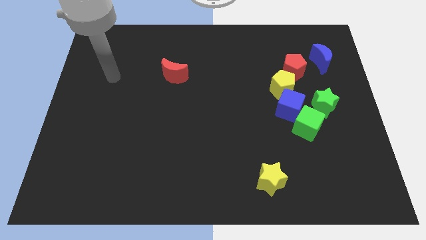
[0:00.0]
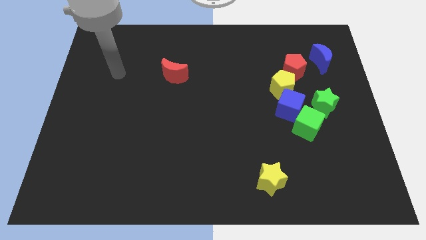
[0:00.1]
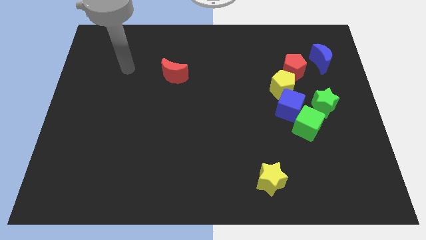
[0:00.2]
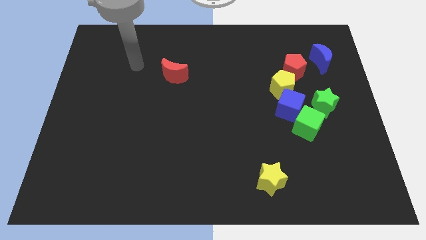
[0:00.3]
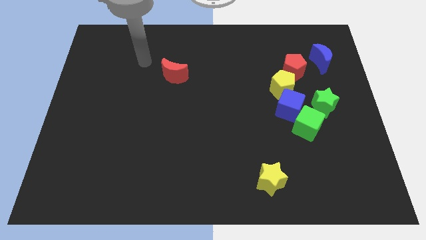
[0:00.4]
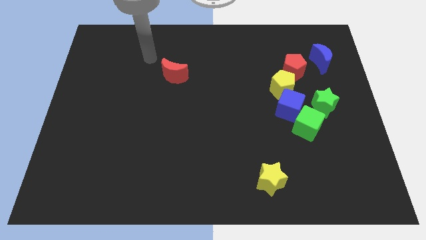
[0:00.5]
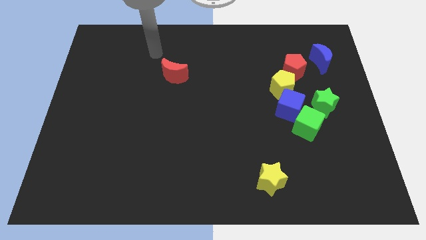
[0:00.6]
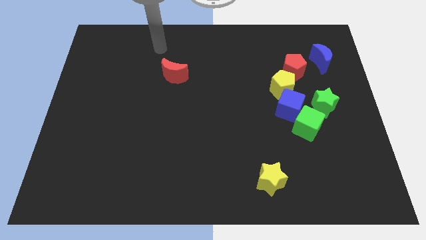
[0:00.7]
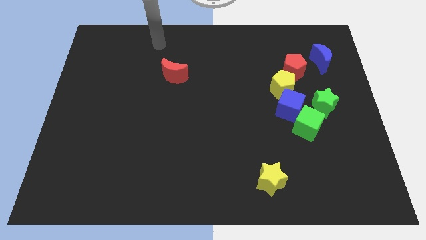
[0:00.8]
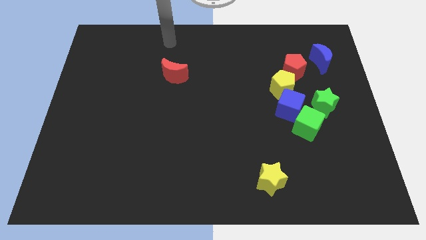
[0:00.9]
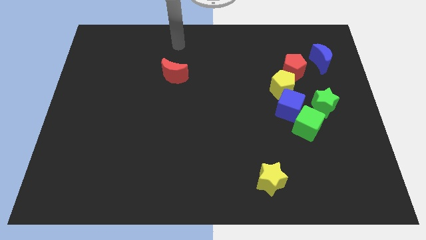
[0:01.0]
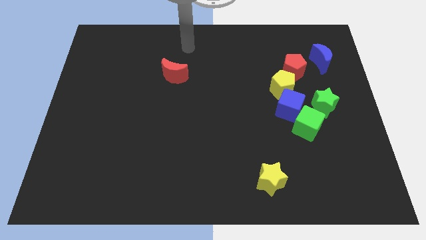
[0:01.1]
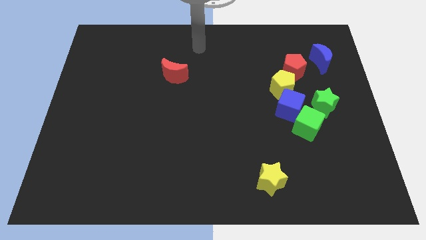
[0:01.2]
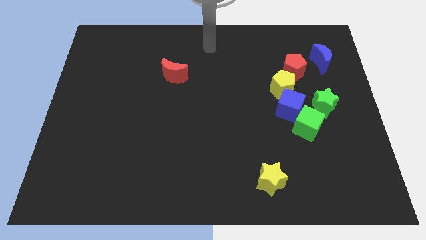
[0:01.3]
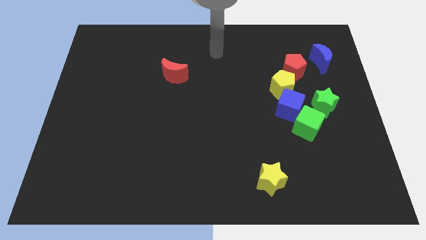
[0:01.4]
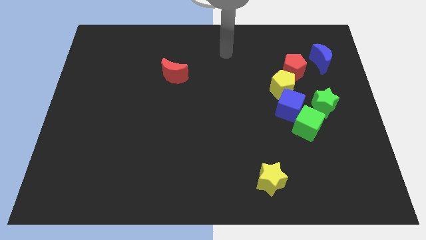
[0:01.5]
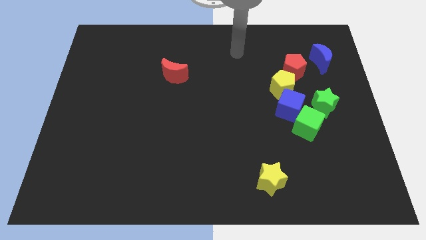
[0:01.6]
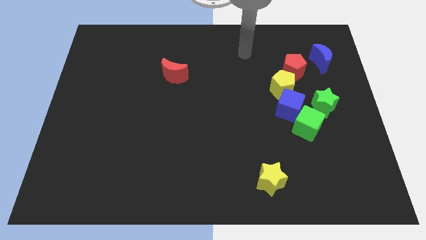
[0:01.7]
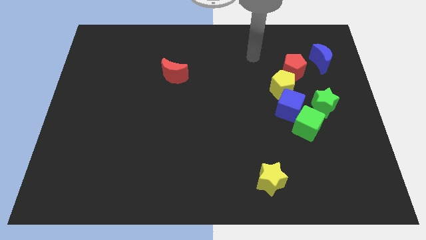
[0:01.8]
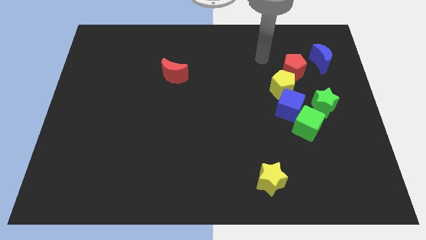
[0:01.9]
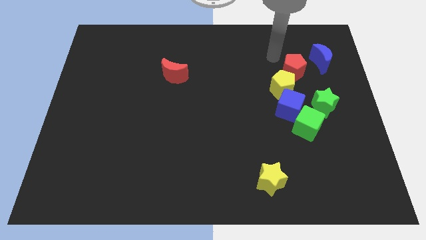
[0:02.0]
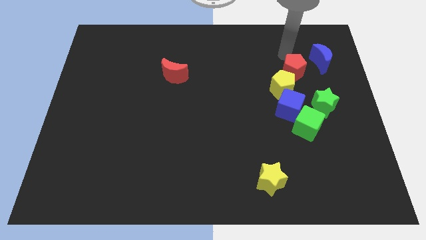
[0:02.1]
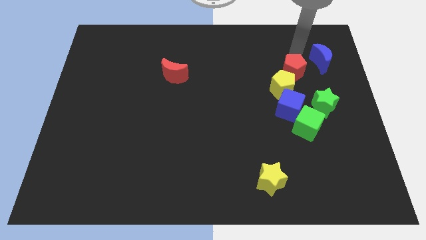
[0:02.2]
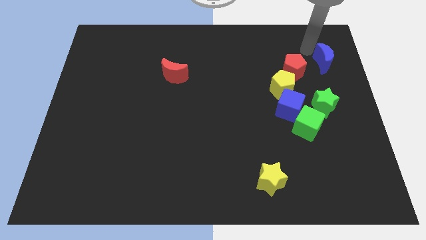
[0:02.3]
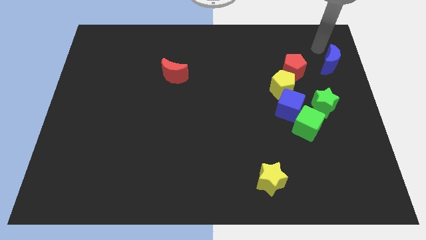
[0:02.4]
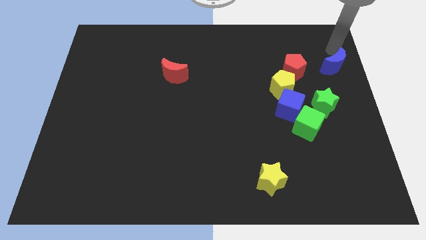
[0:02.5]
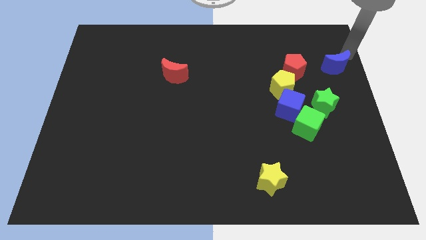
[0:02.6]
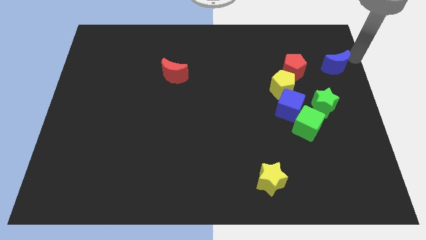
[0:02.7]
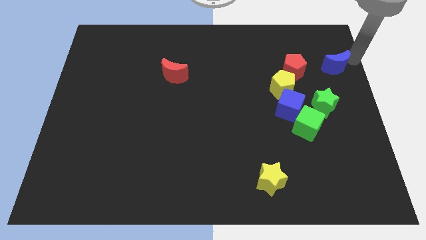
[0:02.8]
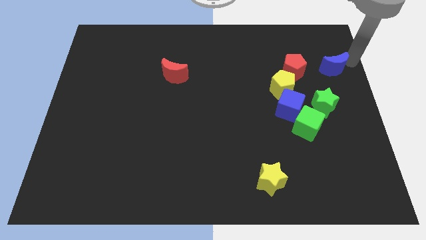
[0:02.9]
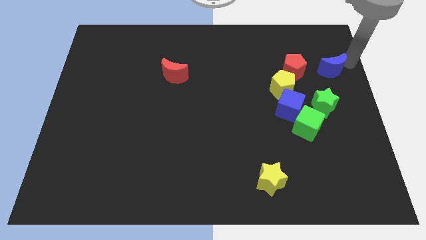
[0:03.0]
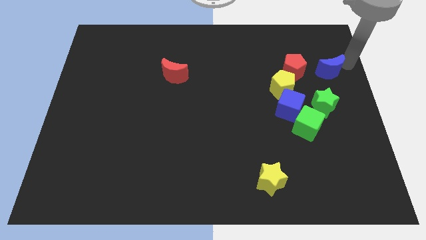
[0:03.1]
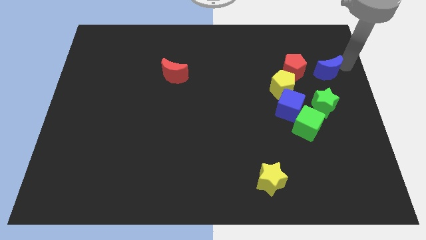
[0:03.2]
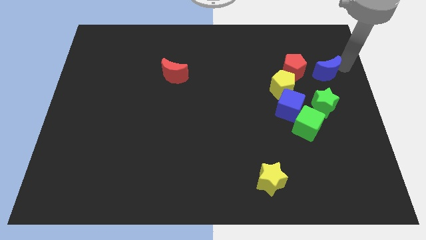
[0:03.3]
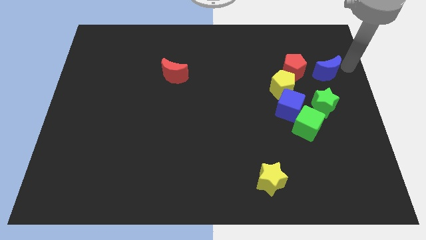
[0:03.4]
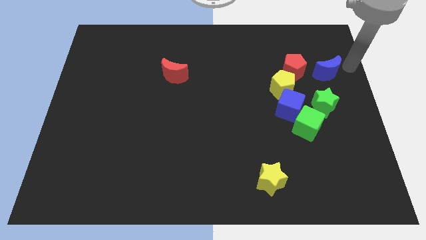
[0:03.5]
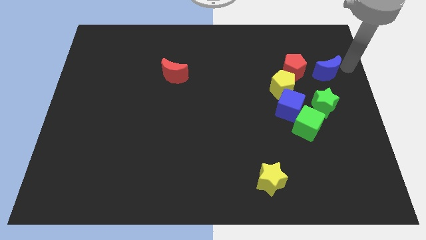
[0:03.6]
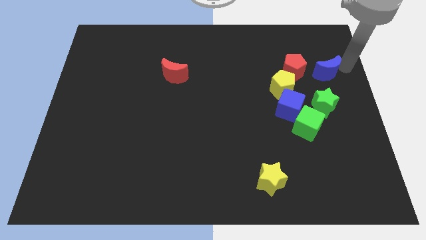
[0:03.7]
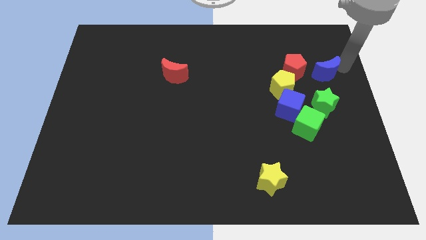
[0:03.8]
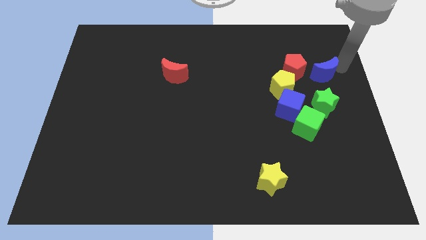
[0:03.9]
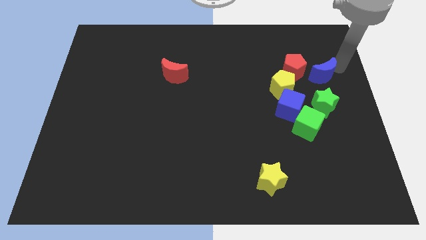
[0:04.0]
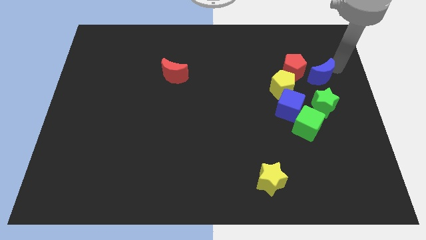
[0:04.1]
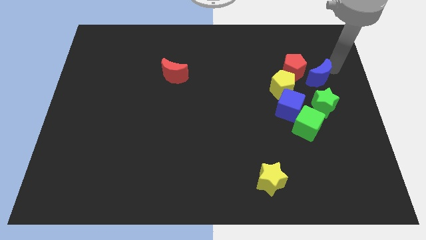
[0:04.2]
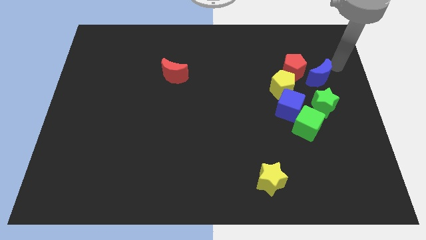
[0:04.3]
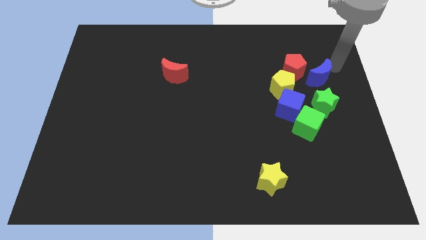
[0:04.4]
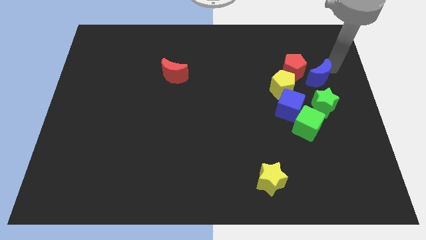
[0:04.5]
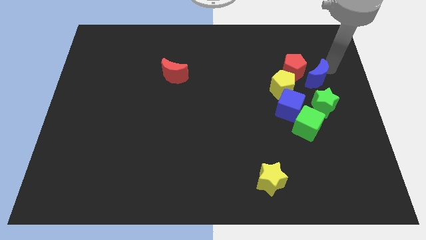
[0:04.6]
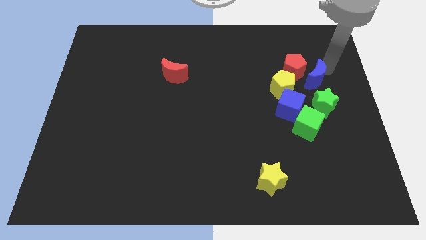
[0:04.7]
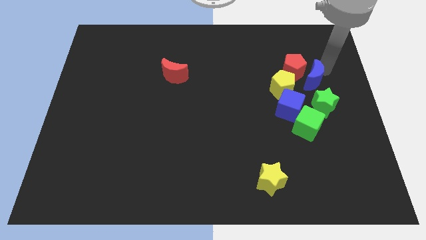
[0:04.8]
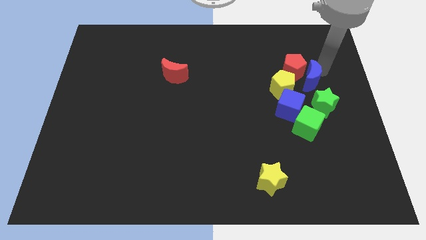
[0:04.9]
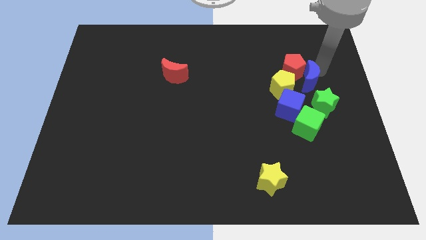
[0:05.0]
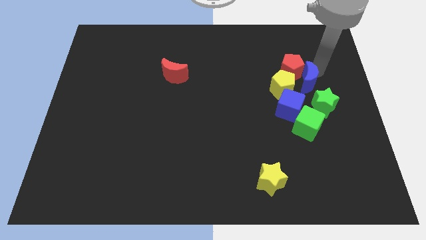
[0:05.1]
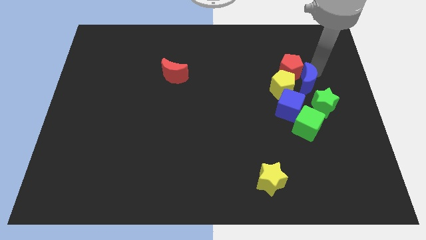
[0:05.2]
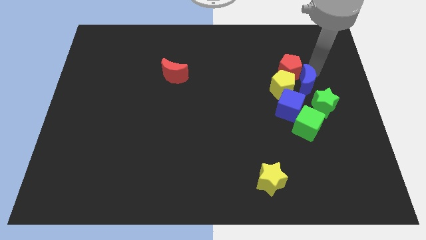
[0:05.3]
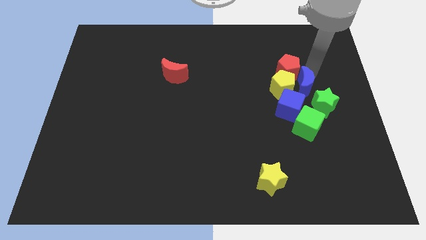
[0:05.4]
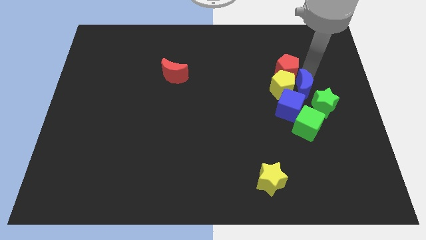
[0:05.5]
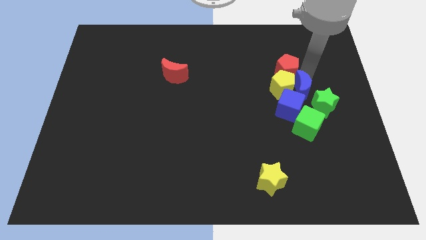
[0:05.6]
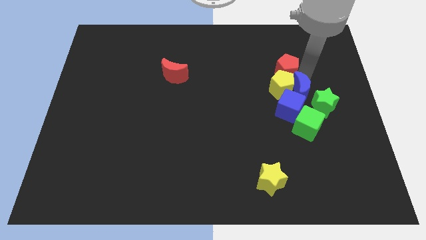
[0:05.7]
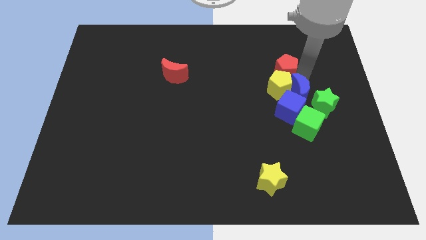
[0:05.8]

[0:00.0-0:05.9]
put the blue moon towards the blue cube

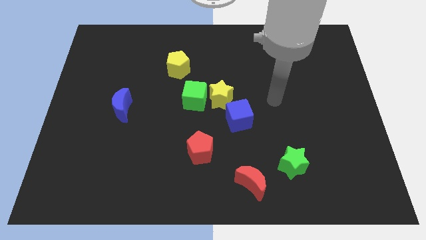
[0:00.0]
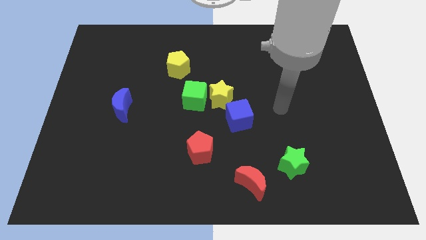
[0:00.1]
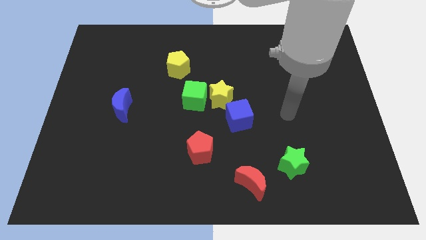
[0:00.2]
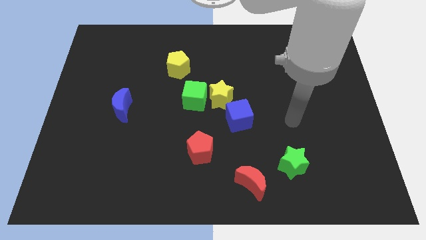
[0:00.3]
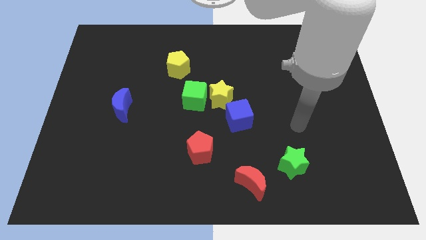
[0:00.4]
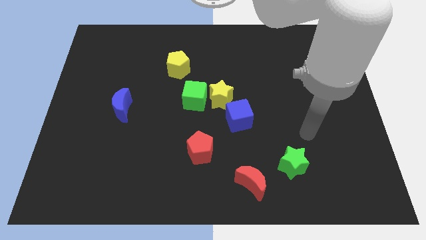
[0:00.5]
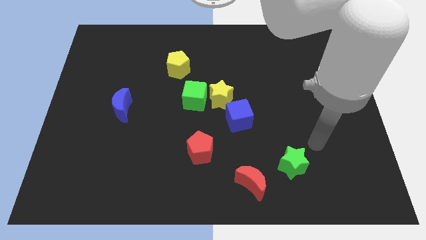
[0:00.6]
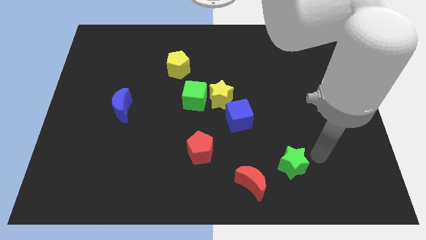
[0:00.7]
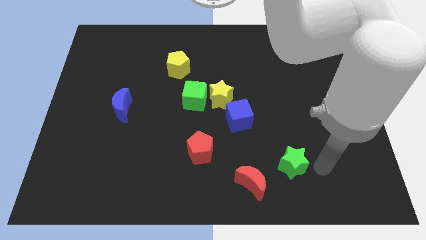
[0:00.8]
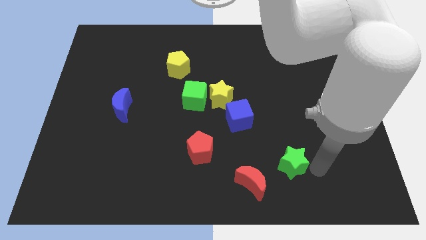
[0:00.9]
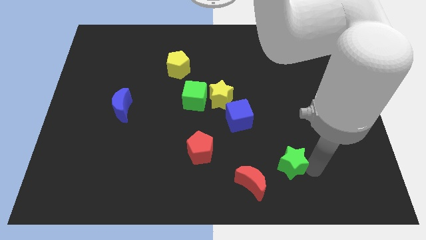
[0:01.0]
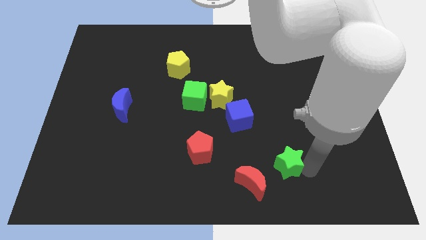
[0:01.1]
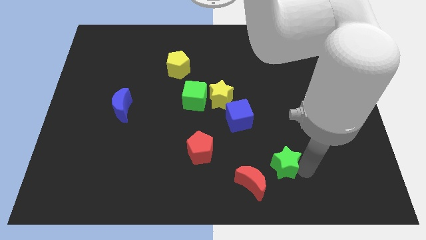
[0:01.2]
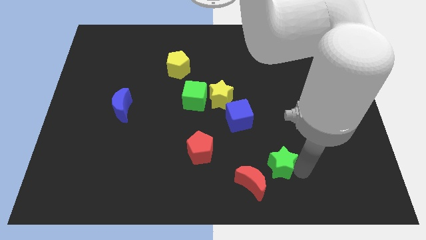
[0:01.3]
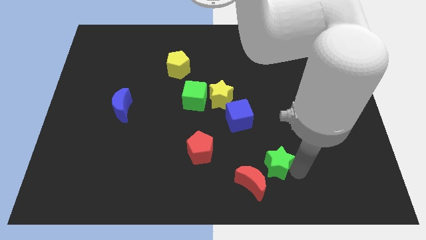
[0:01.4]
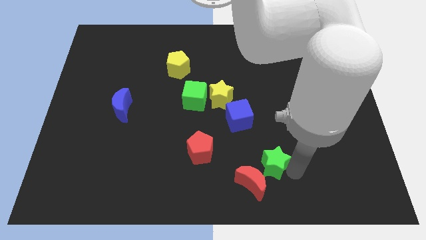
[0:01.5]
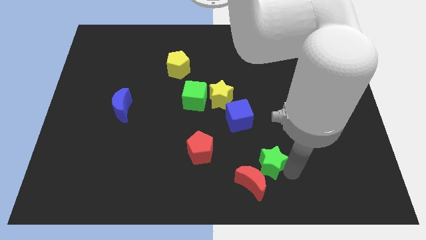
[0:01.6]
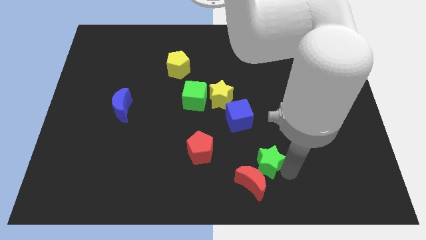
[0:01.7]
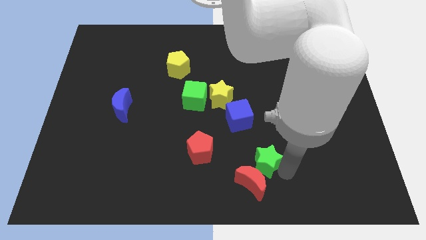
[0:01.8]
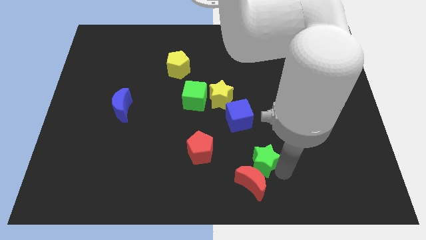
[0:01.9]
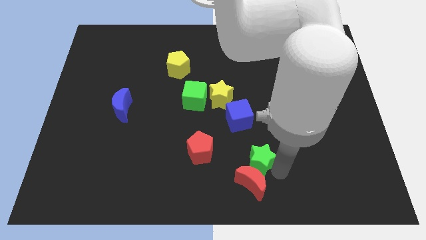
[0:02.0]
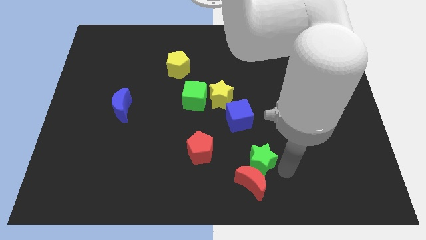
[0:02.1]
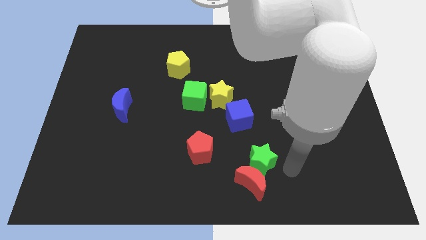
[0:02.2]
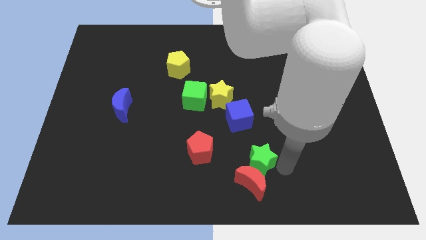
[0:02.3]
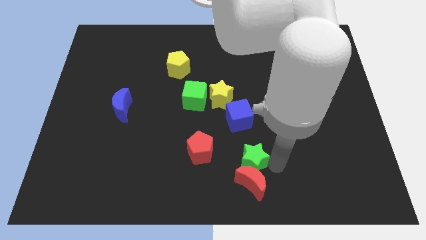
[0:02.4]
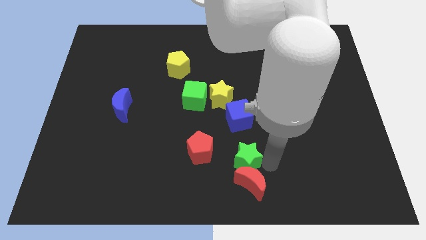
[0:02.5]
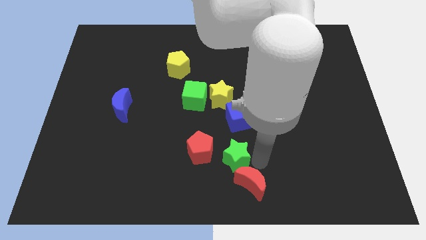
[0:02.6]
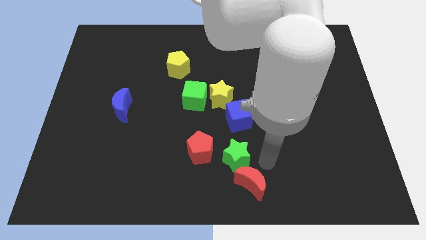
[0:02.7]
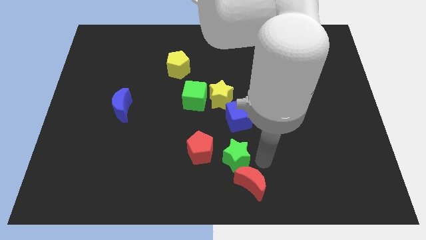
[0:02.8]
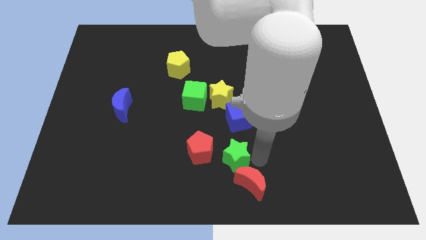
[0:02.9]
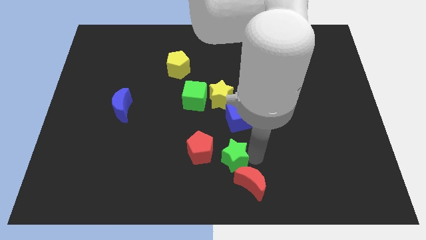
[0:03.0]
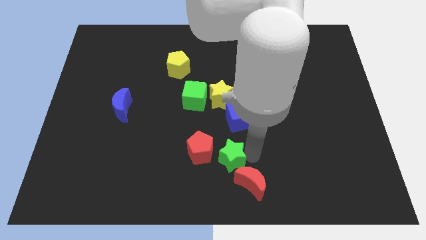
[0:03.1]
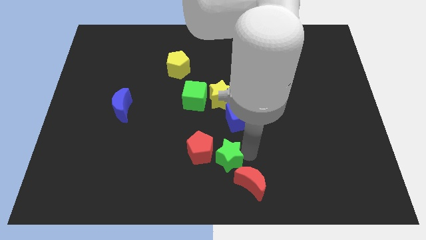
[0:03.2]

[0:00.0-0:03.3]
slide the green star next to the red pentagon
